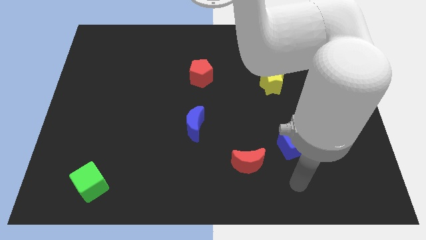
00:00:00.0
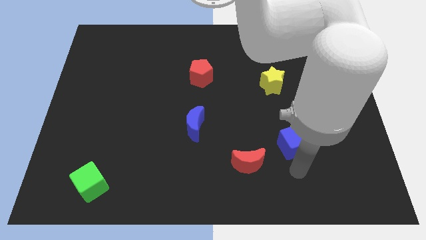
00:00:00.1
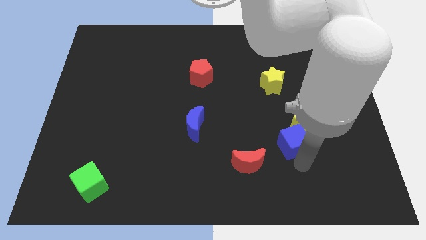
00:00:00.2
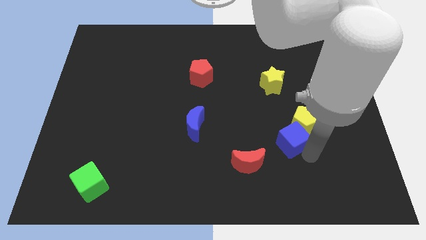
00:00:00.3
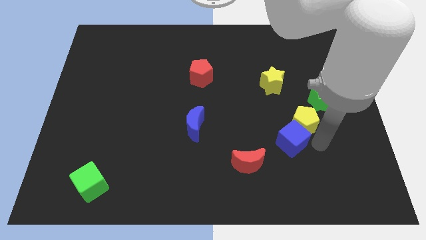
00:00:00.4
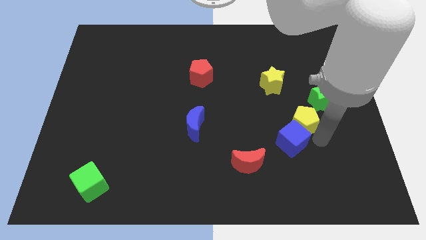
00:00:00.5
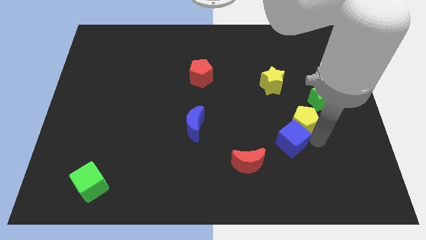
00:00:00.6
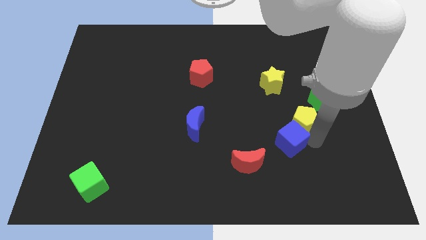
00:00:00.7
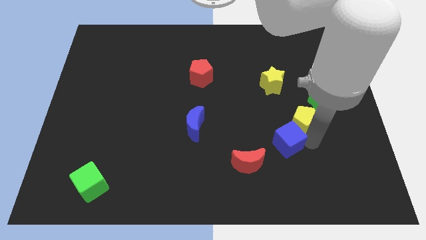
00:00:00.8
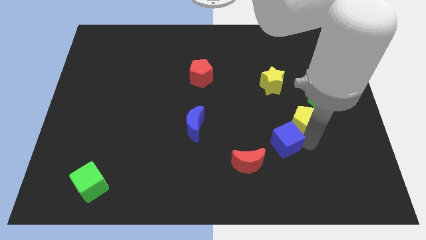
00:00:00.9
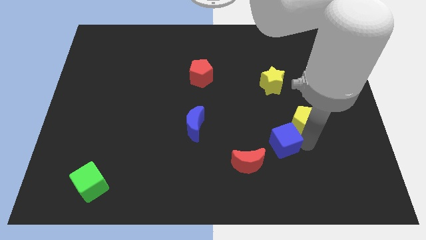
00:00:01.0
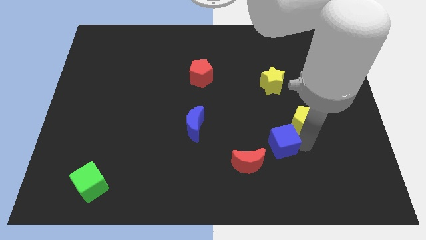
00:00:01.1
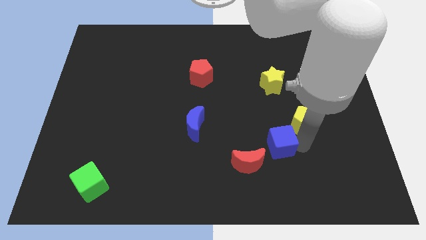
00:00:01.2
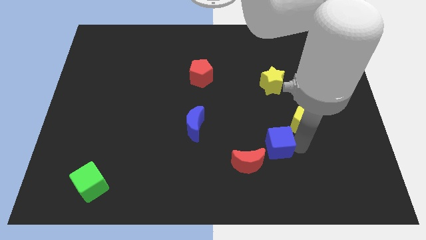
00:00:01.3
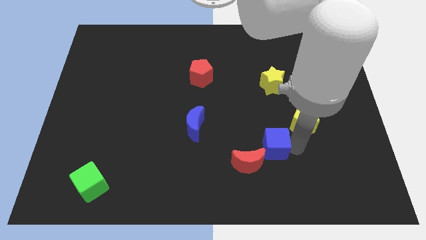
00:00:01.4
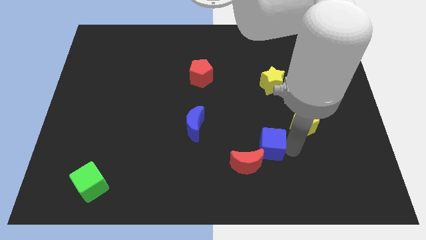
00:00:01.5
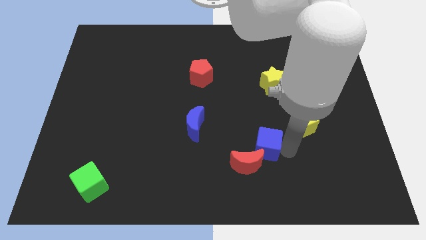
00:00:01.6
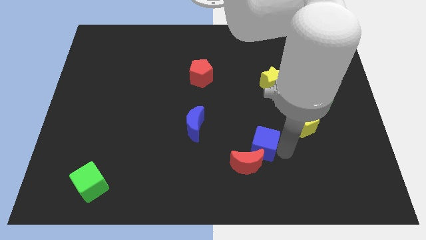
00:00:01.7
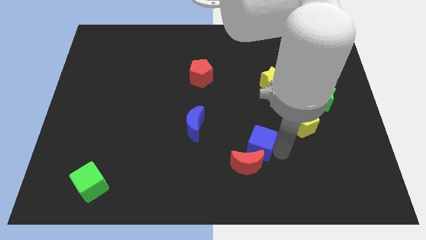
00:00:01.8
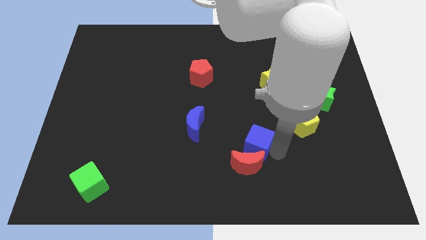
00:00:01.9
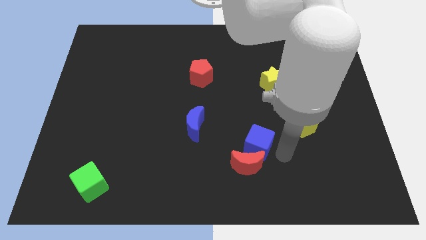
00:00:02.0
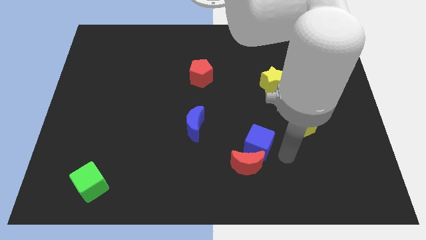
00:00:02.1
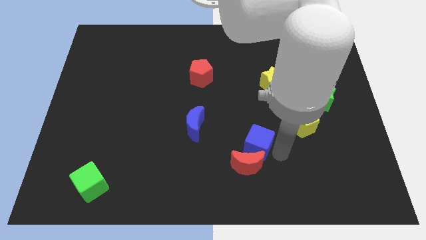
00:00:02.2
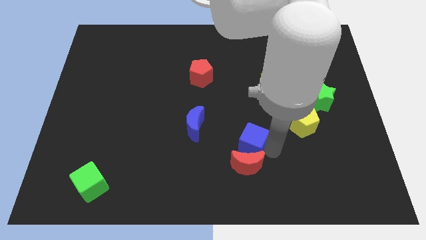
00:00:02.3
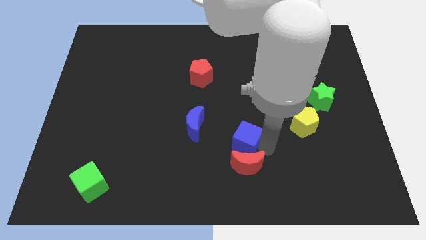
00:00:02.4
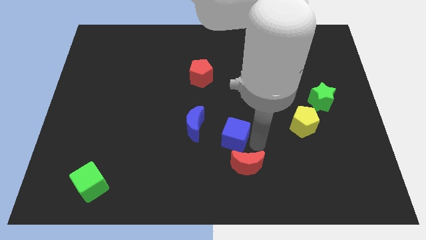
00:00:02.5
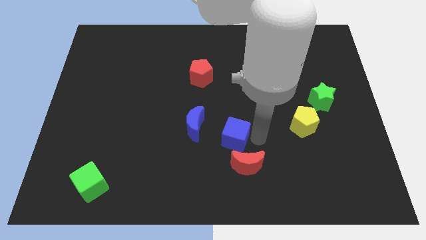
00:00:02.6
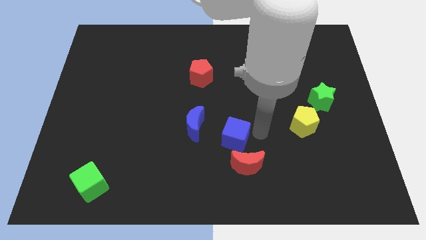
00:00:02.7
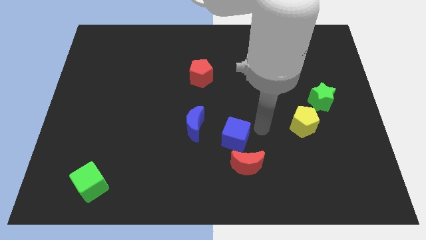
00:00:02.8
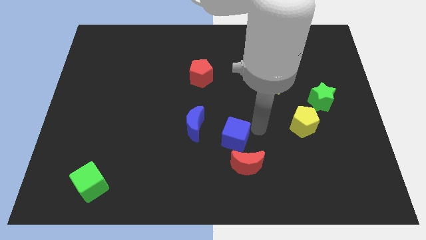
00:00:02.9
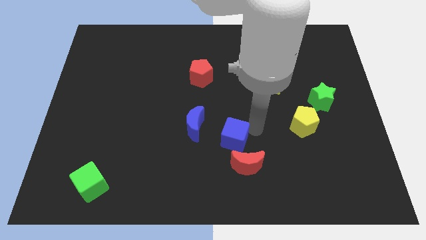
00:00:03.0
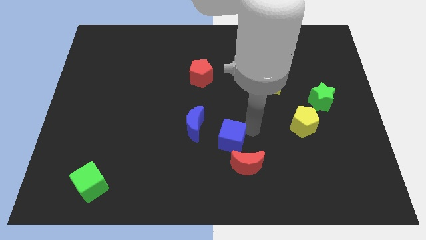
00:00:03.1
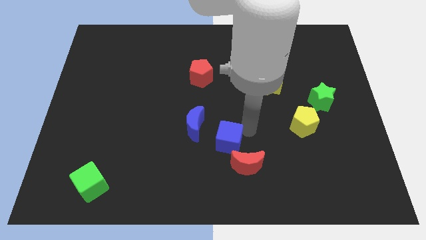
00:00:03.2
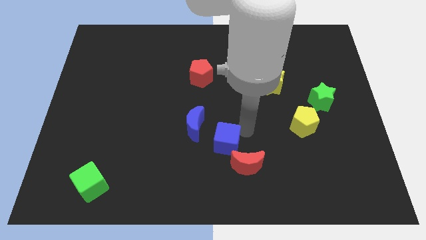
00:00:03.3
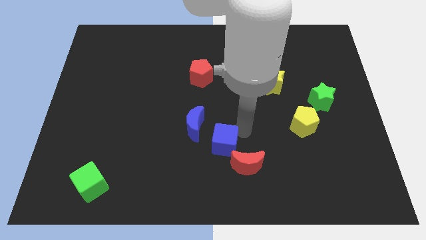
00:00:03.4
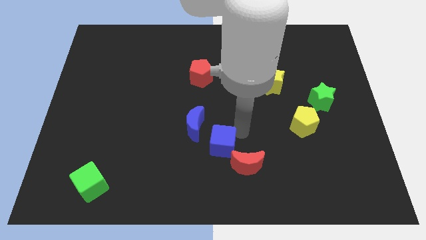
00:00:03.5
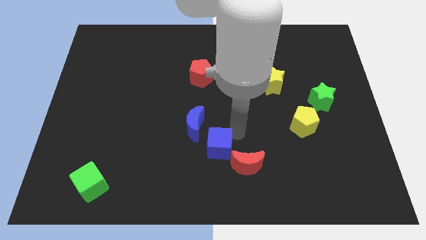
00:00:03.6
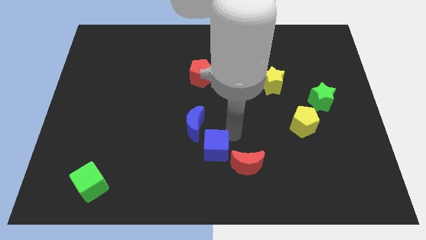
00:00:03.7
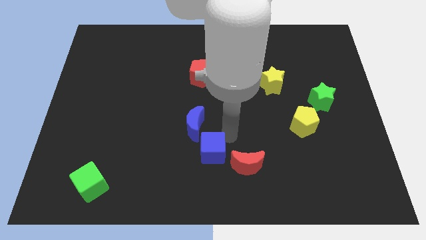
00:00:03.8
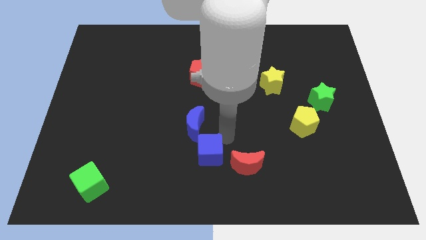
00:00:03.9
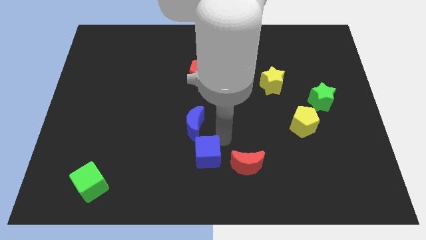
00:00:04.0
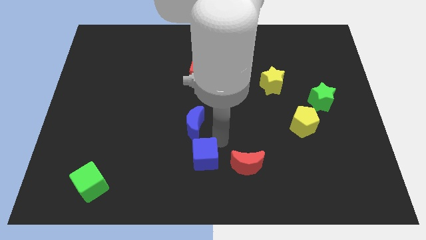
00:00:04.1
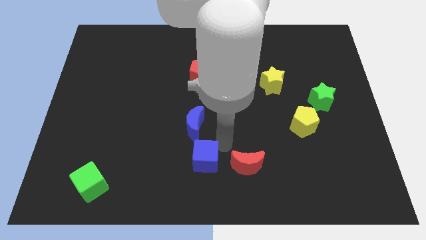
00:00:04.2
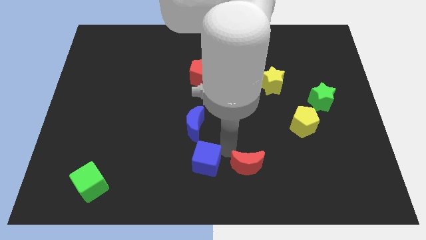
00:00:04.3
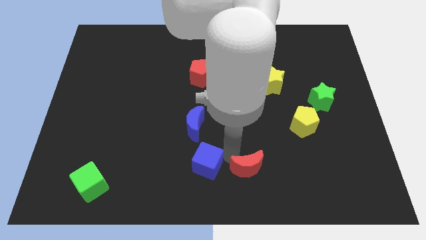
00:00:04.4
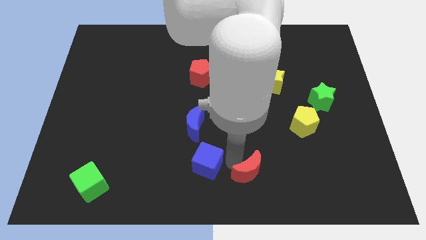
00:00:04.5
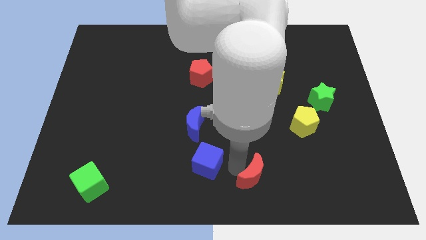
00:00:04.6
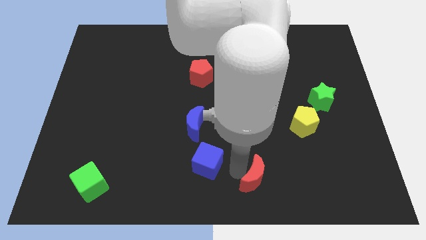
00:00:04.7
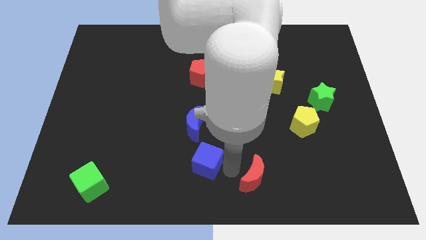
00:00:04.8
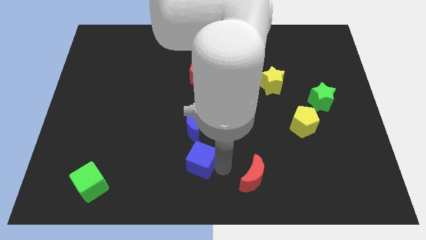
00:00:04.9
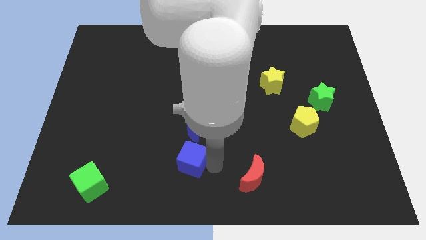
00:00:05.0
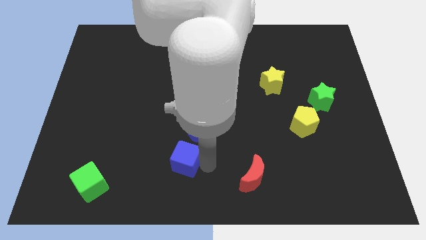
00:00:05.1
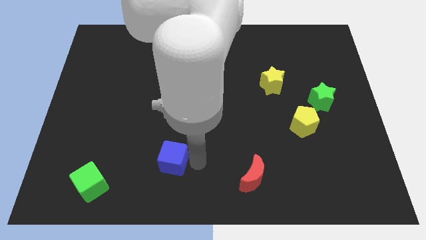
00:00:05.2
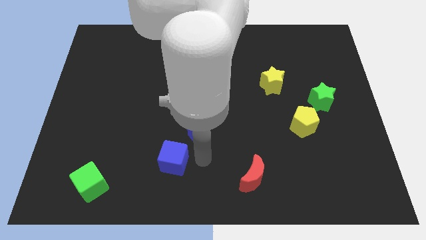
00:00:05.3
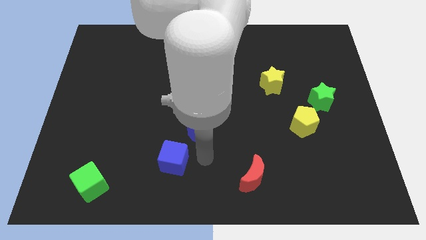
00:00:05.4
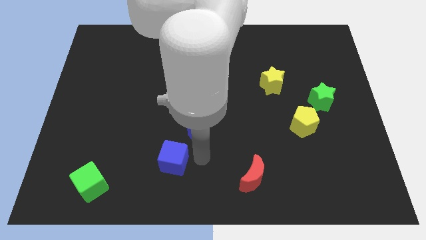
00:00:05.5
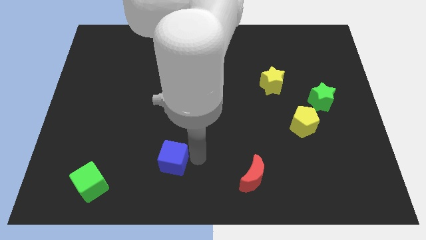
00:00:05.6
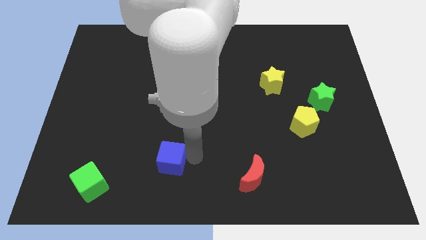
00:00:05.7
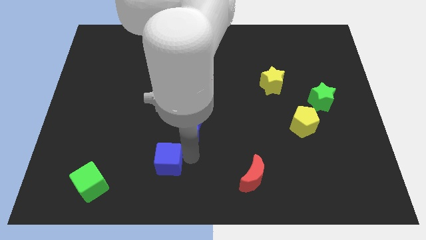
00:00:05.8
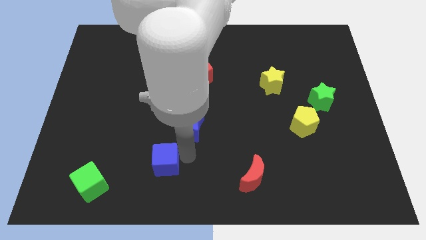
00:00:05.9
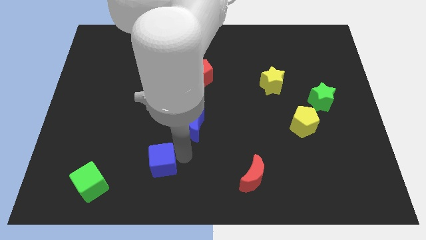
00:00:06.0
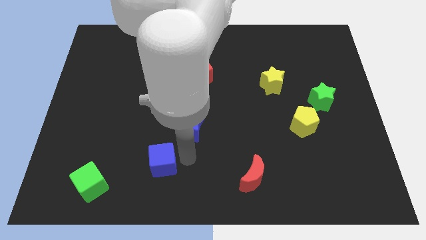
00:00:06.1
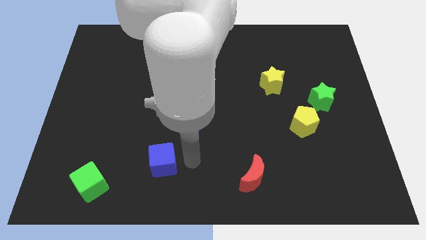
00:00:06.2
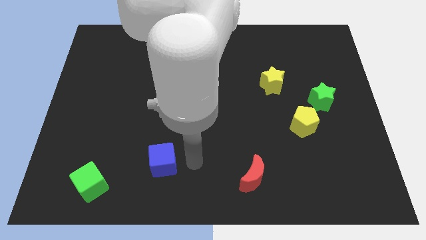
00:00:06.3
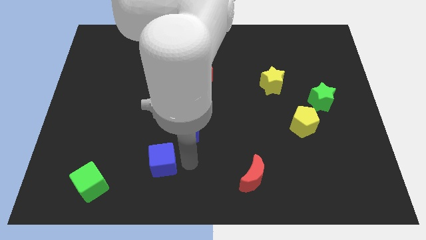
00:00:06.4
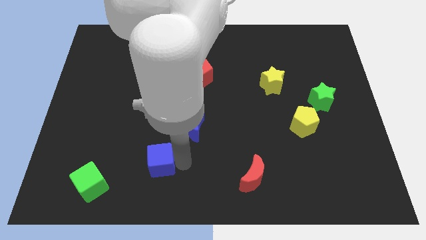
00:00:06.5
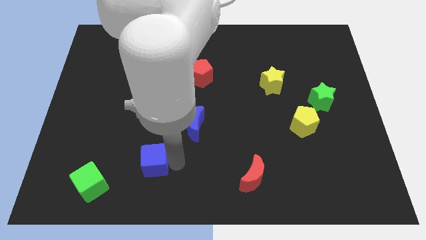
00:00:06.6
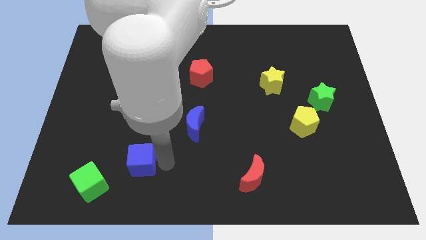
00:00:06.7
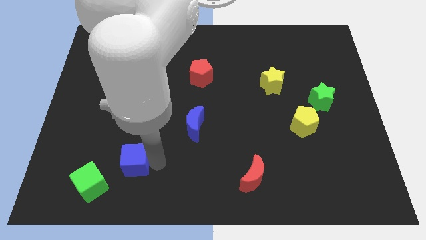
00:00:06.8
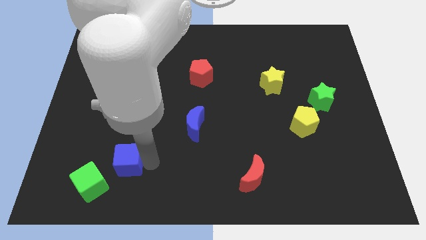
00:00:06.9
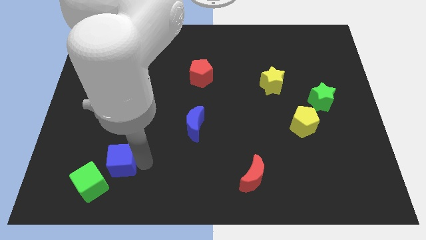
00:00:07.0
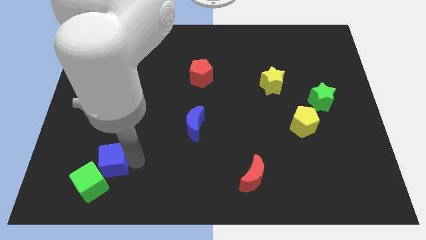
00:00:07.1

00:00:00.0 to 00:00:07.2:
move the blue cube close to the green cube

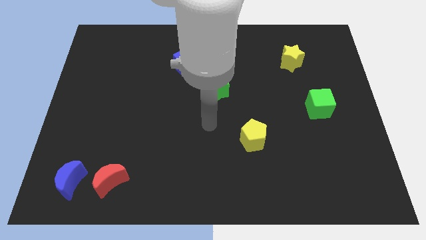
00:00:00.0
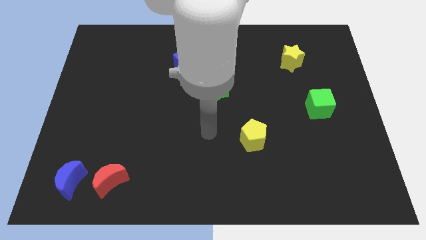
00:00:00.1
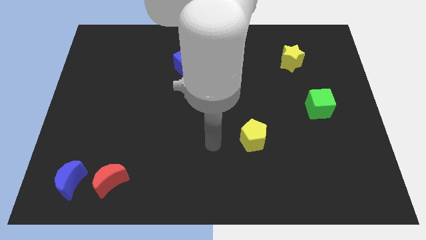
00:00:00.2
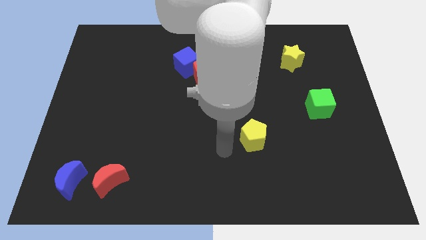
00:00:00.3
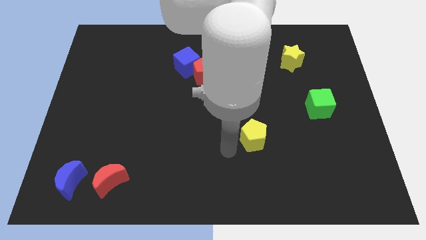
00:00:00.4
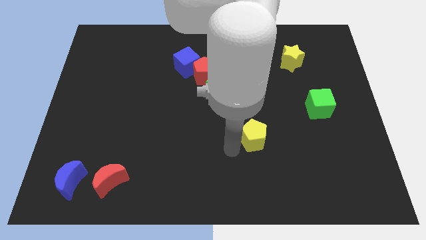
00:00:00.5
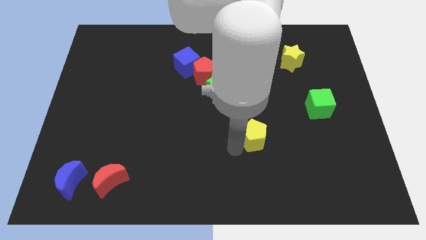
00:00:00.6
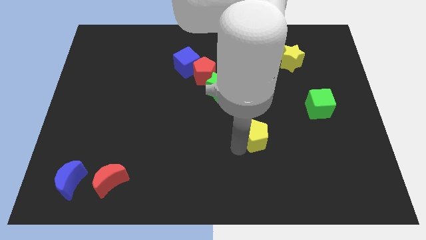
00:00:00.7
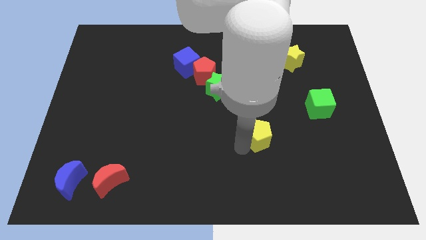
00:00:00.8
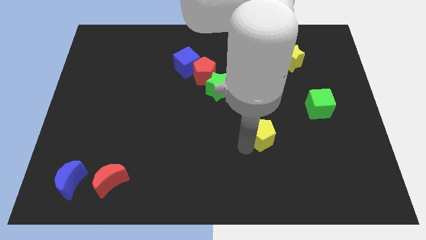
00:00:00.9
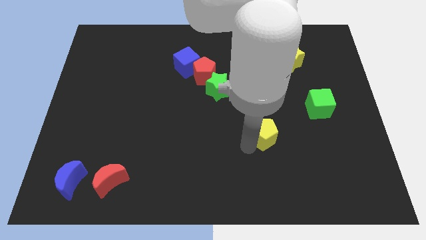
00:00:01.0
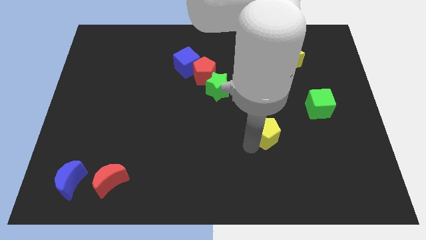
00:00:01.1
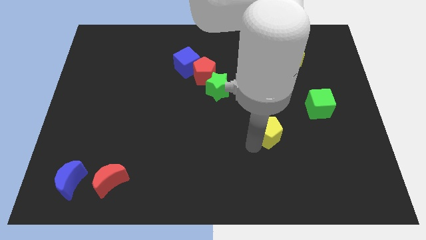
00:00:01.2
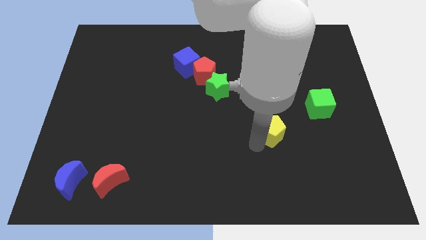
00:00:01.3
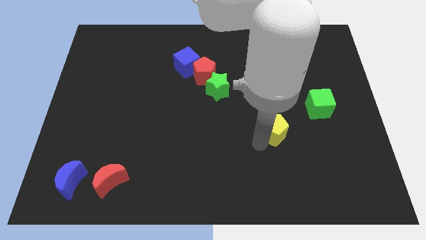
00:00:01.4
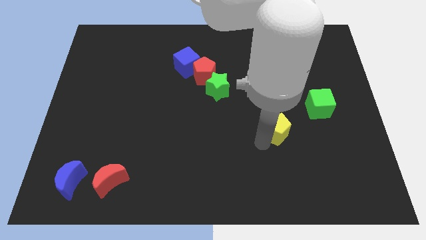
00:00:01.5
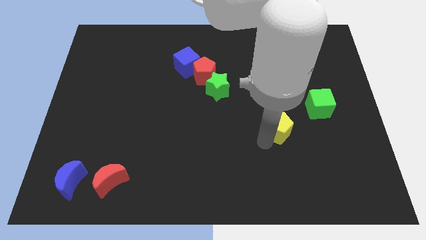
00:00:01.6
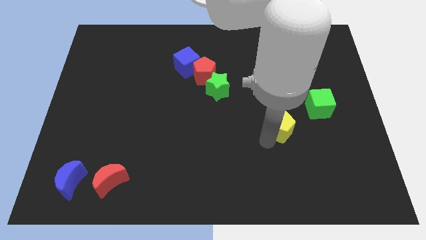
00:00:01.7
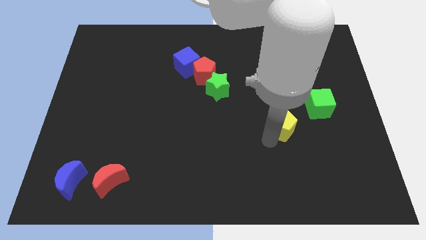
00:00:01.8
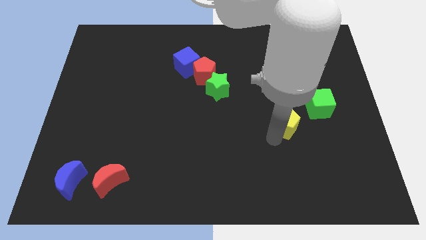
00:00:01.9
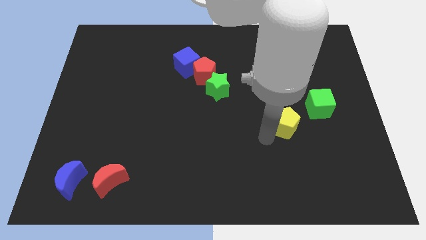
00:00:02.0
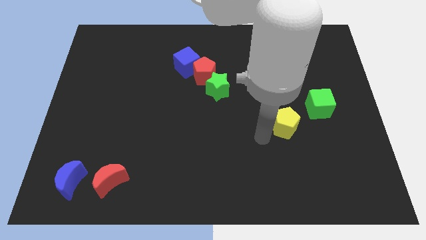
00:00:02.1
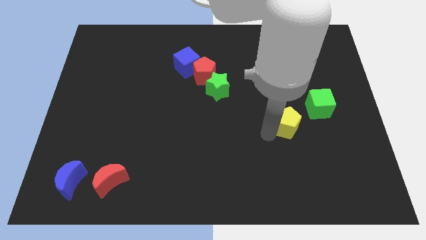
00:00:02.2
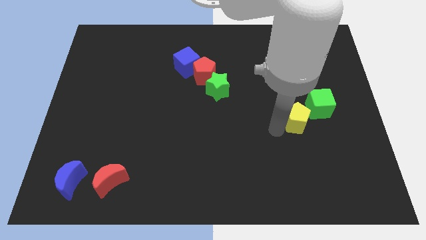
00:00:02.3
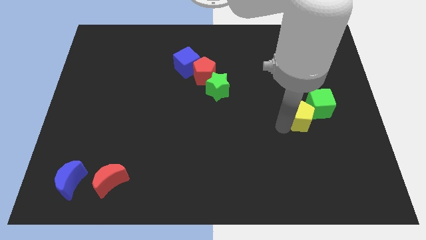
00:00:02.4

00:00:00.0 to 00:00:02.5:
put the yellow pentagon to the green cube
